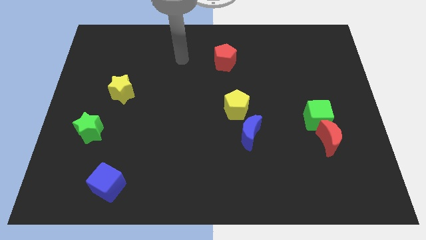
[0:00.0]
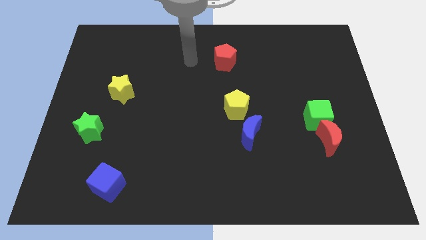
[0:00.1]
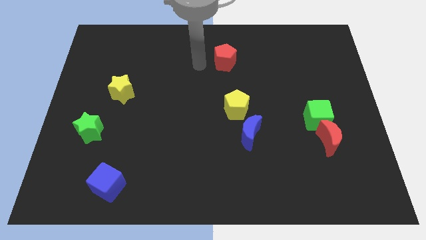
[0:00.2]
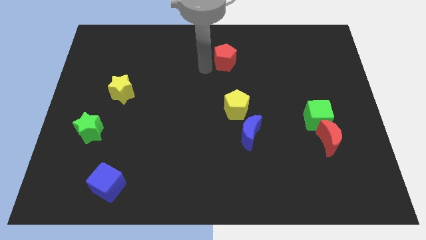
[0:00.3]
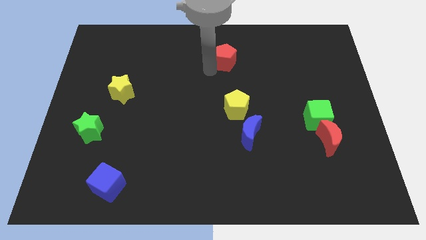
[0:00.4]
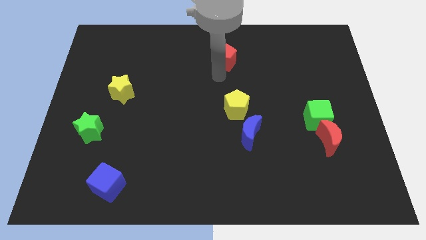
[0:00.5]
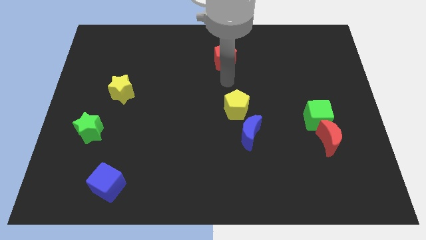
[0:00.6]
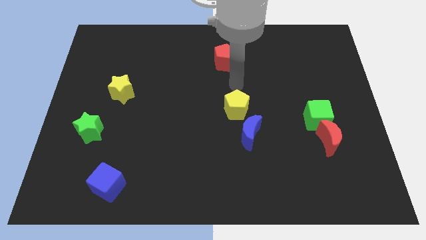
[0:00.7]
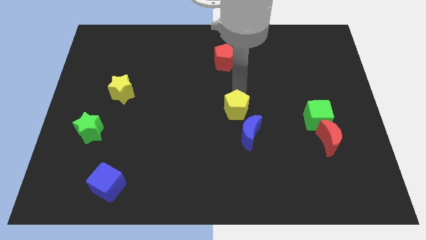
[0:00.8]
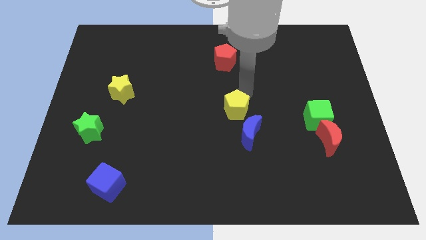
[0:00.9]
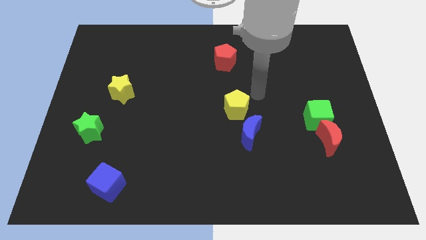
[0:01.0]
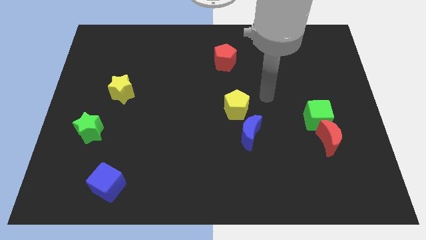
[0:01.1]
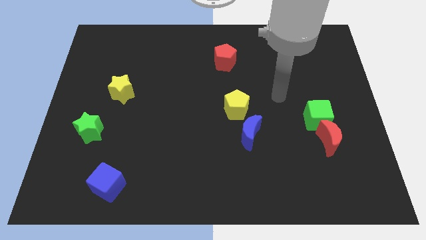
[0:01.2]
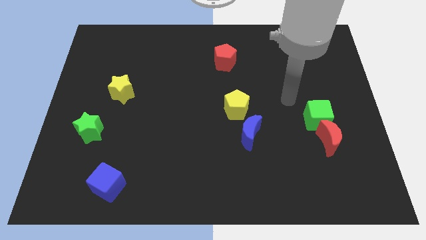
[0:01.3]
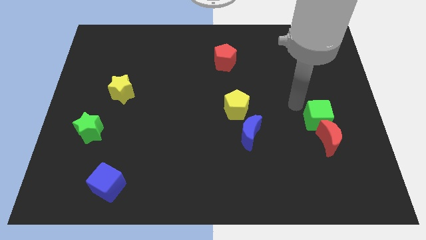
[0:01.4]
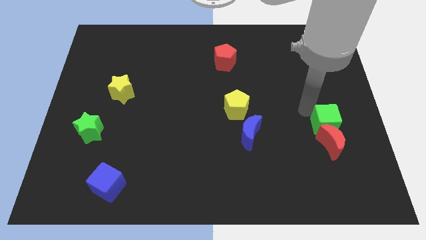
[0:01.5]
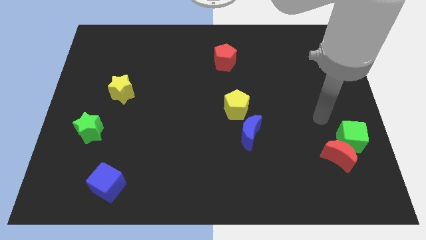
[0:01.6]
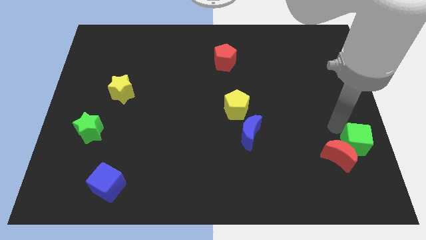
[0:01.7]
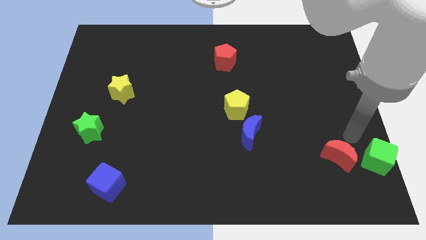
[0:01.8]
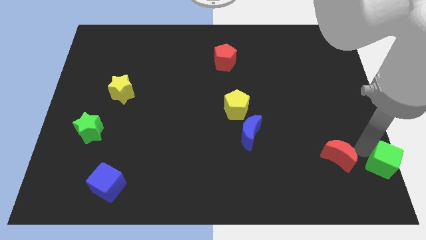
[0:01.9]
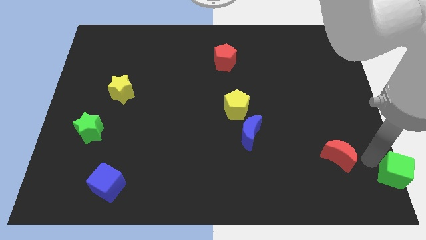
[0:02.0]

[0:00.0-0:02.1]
pull the red moon apart from the green cube

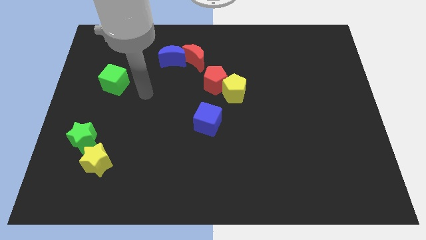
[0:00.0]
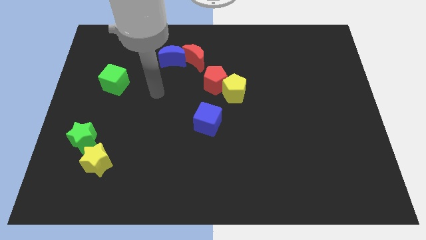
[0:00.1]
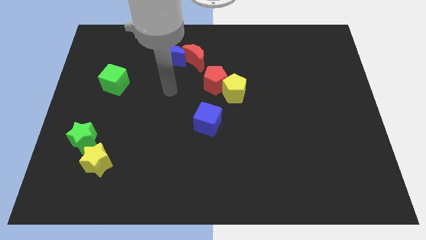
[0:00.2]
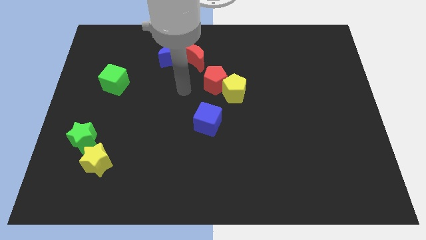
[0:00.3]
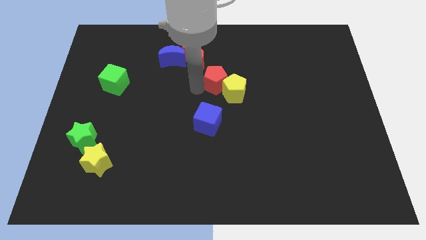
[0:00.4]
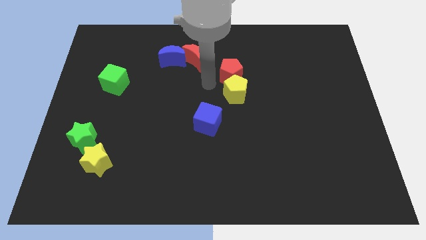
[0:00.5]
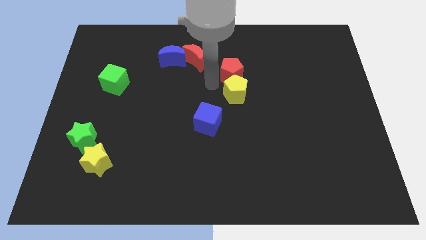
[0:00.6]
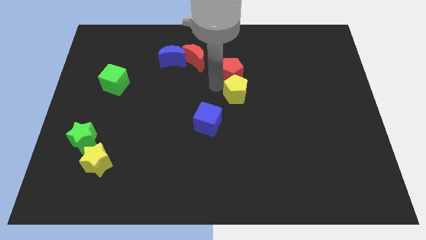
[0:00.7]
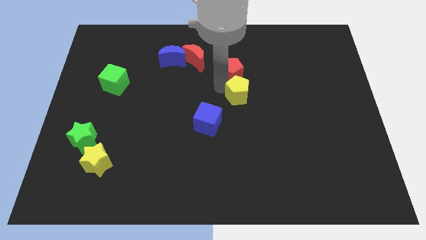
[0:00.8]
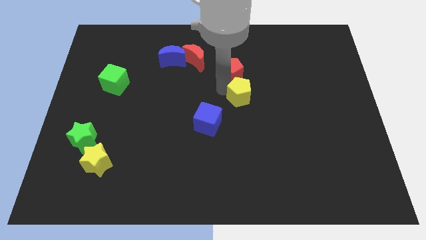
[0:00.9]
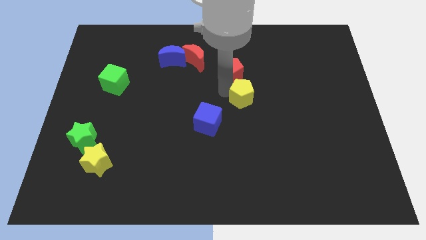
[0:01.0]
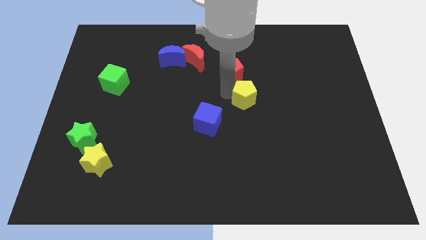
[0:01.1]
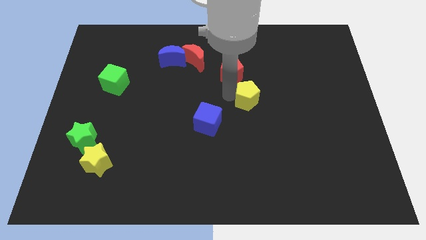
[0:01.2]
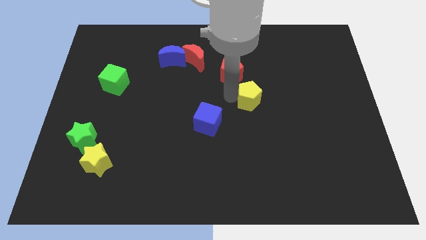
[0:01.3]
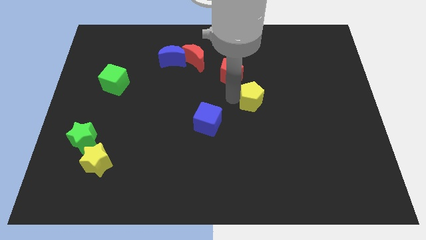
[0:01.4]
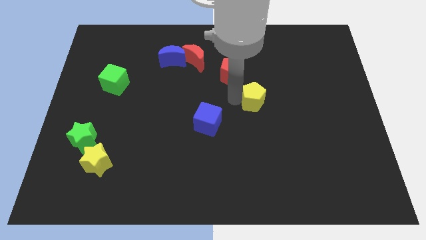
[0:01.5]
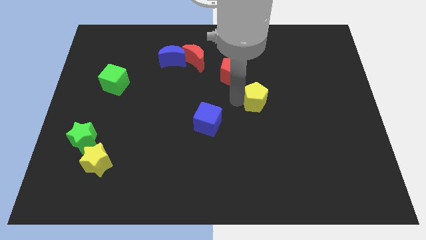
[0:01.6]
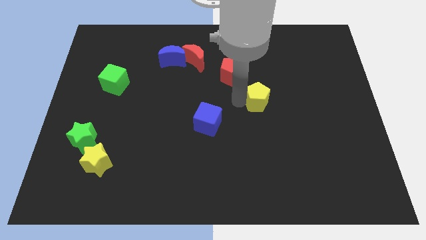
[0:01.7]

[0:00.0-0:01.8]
separate the yellow pentagon from the red pentagon

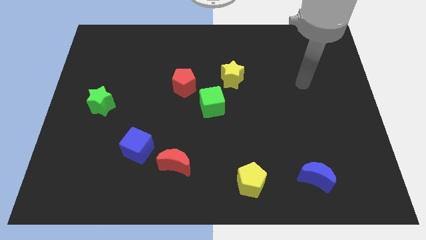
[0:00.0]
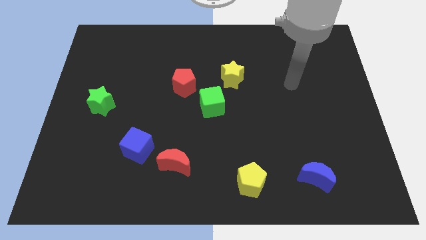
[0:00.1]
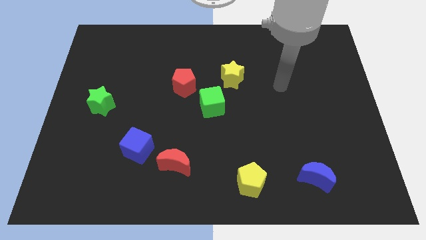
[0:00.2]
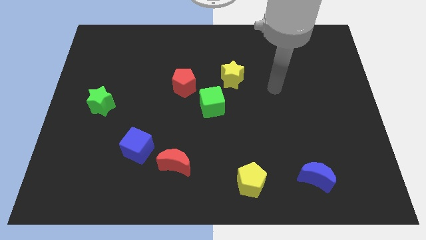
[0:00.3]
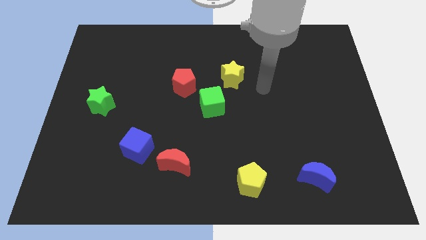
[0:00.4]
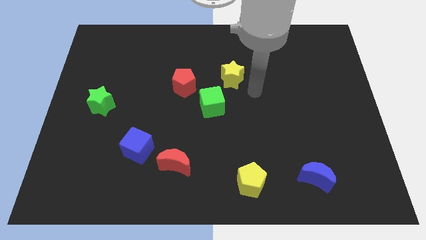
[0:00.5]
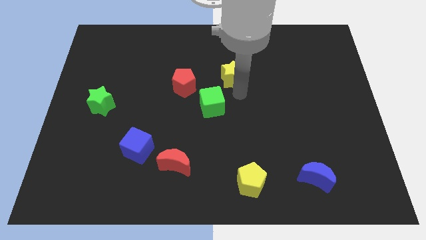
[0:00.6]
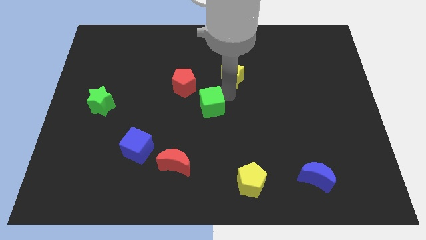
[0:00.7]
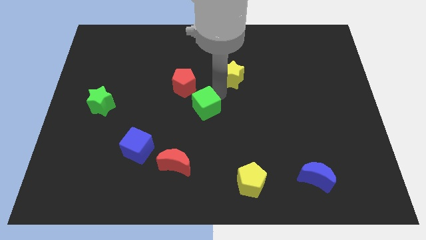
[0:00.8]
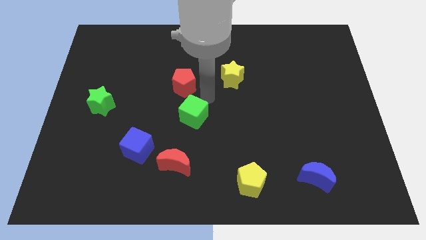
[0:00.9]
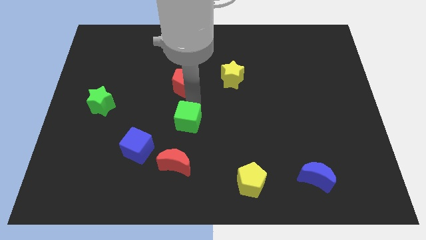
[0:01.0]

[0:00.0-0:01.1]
pull the red pentagon apart from the green cube

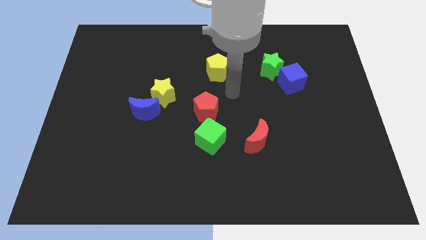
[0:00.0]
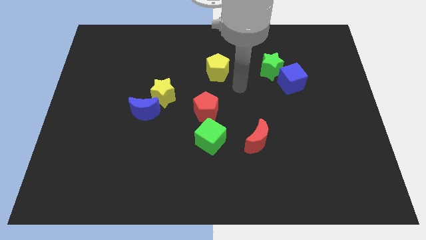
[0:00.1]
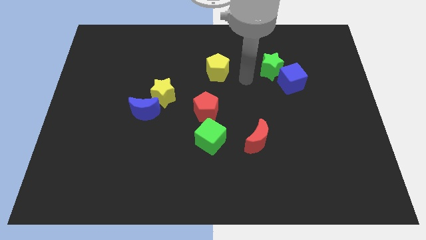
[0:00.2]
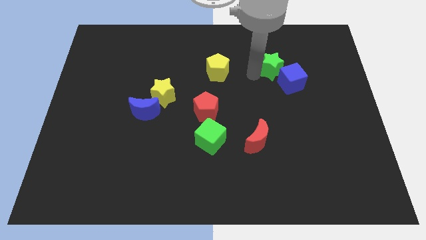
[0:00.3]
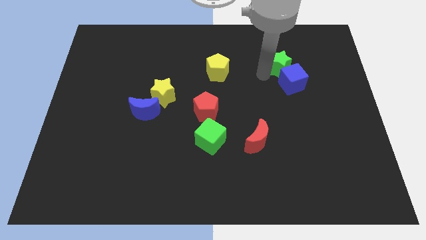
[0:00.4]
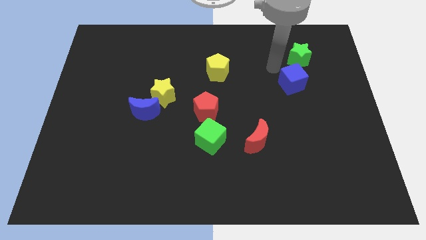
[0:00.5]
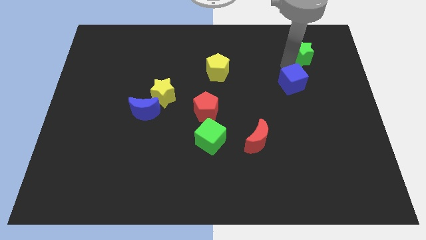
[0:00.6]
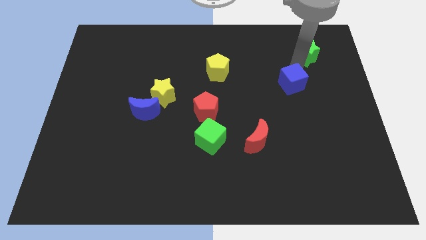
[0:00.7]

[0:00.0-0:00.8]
pull the blue cube apart from the green star

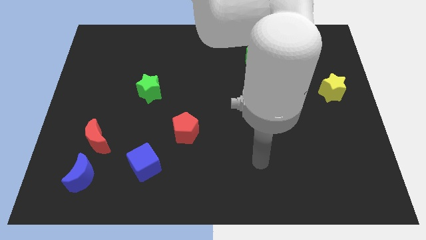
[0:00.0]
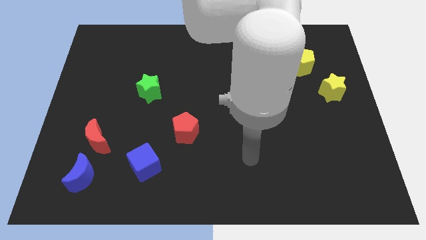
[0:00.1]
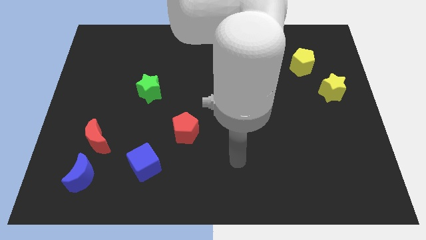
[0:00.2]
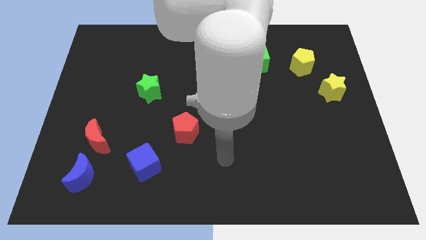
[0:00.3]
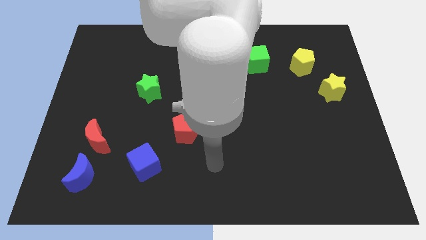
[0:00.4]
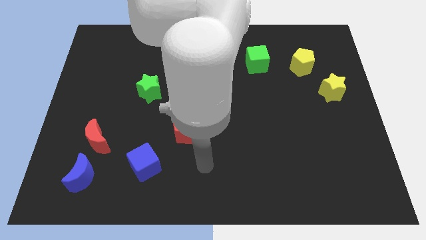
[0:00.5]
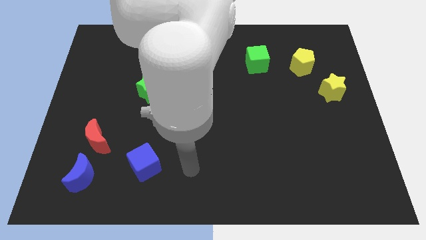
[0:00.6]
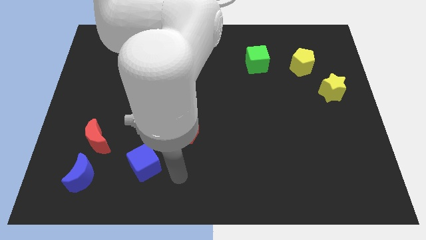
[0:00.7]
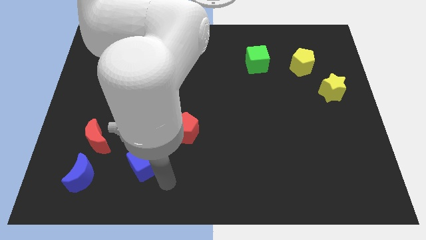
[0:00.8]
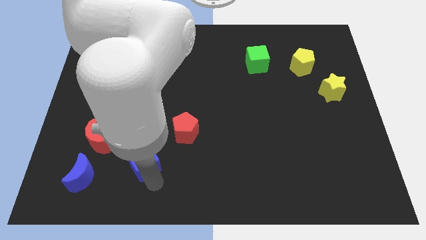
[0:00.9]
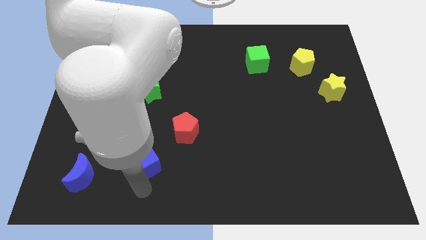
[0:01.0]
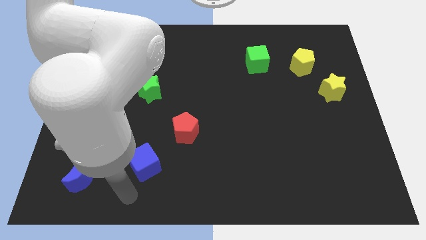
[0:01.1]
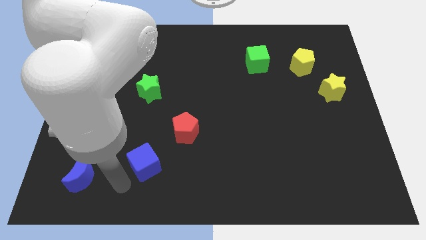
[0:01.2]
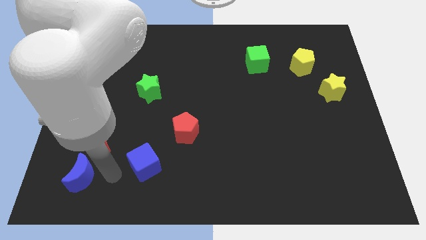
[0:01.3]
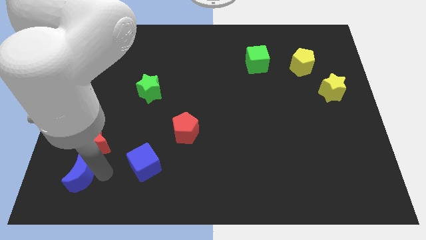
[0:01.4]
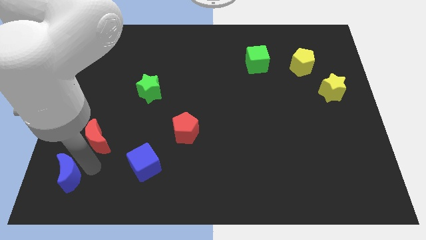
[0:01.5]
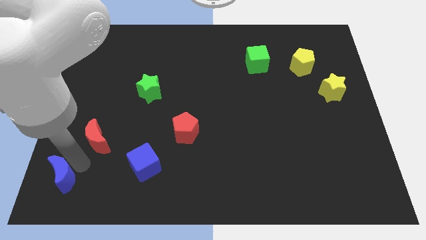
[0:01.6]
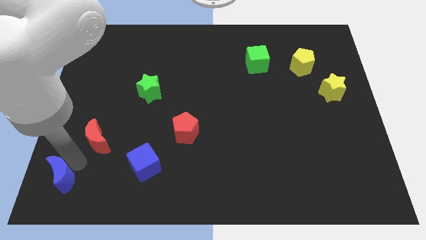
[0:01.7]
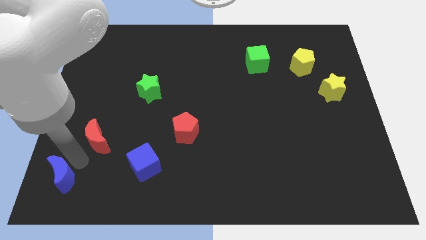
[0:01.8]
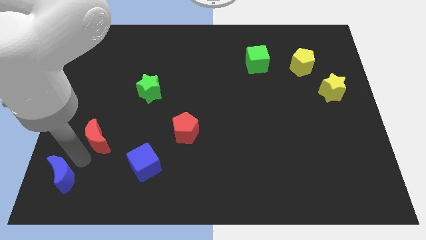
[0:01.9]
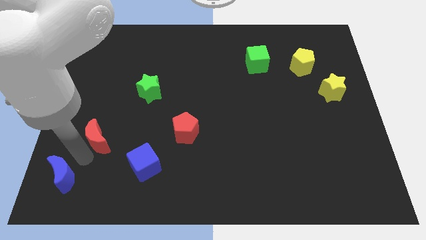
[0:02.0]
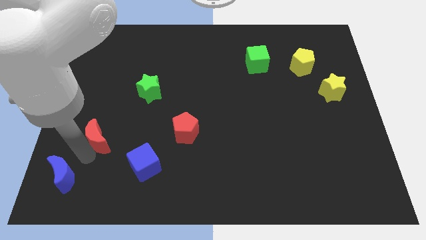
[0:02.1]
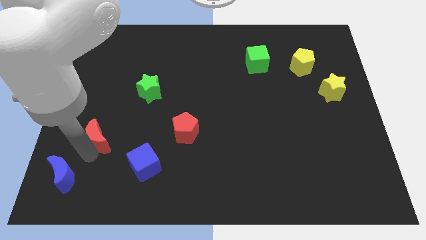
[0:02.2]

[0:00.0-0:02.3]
separate the red moon from the blue moon

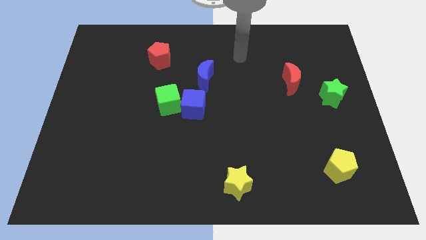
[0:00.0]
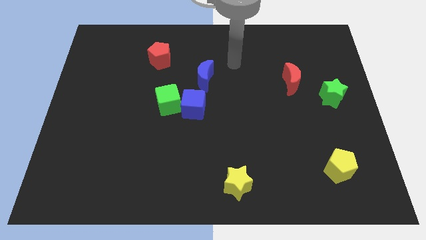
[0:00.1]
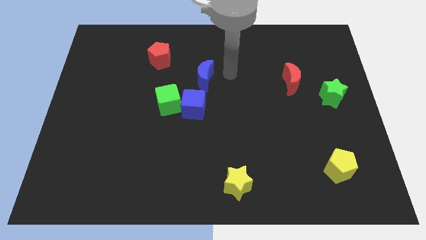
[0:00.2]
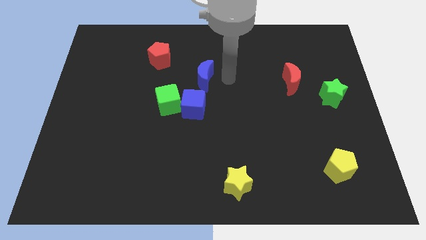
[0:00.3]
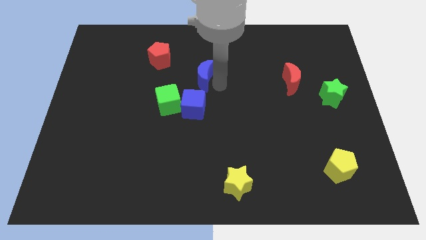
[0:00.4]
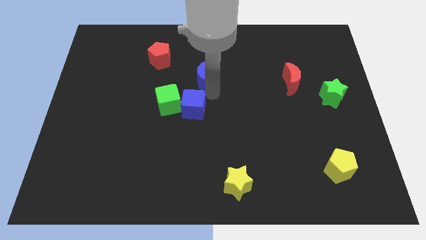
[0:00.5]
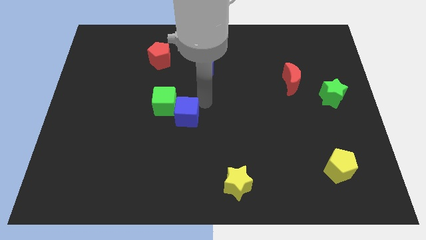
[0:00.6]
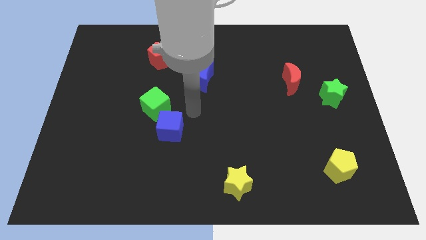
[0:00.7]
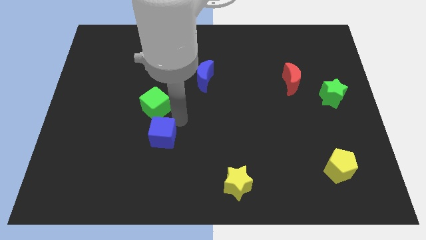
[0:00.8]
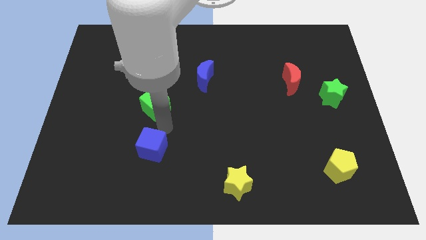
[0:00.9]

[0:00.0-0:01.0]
pull the green cube apart from the blue cube
